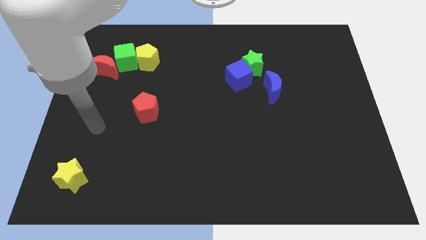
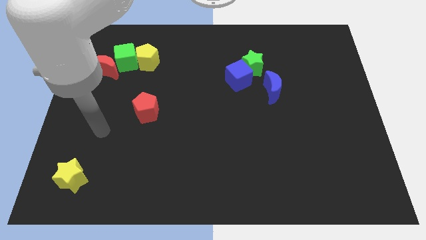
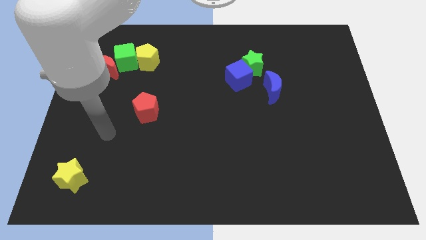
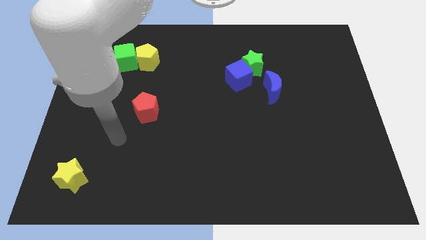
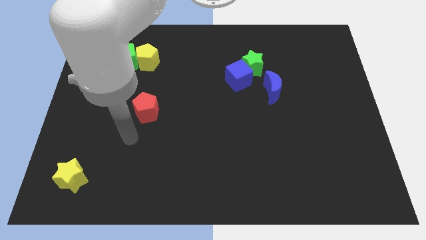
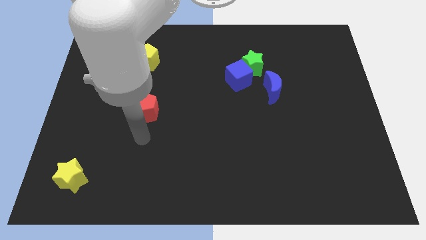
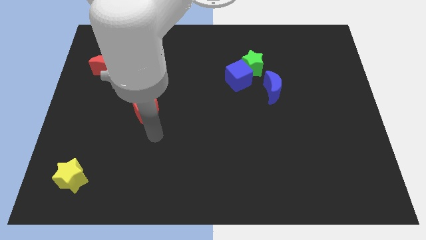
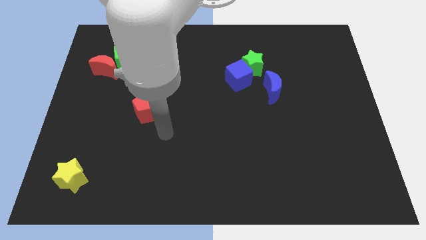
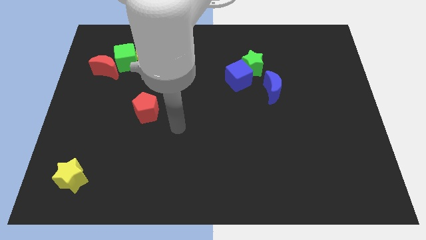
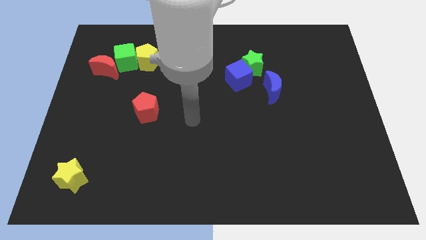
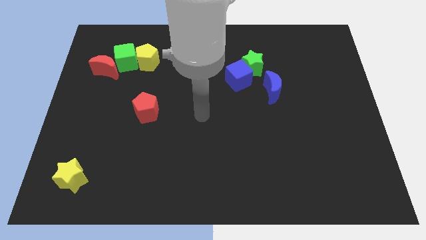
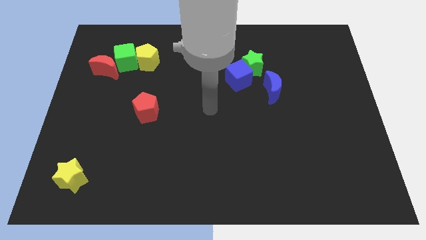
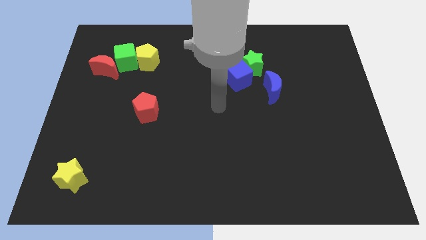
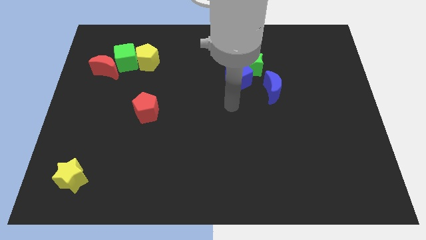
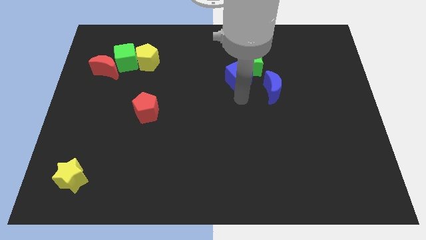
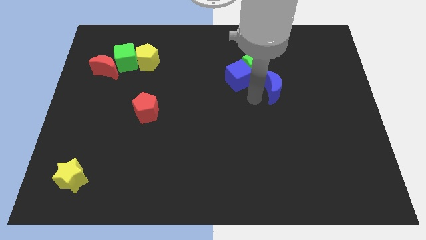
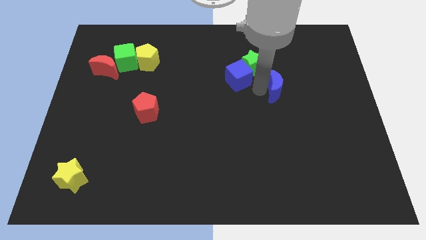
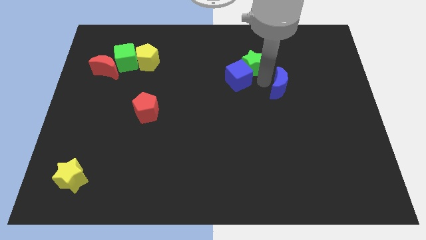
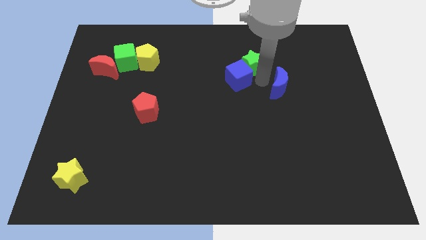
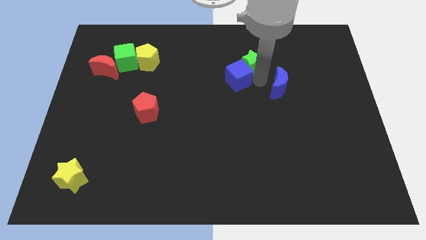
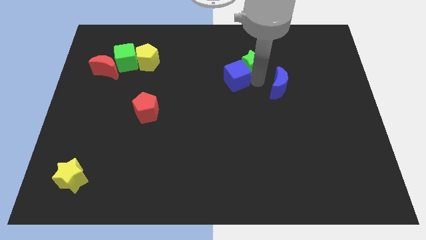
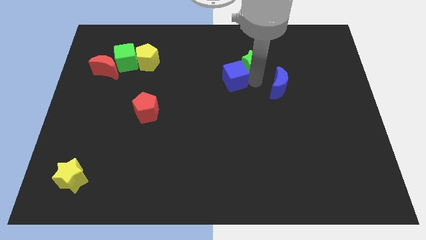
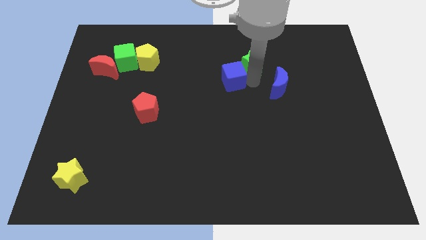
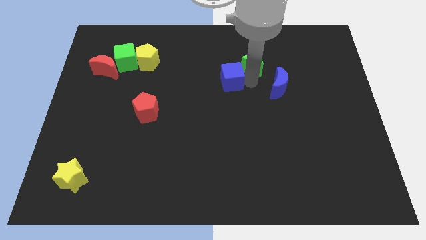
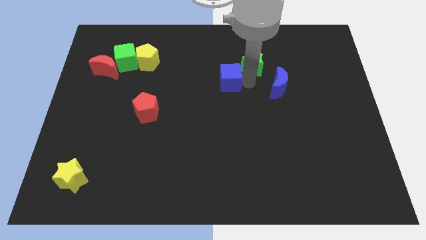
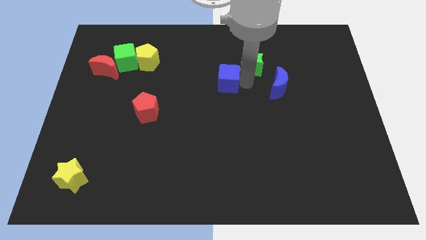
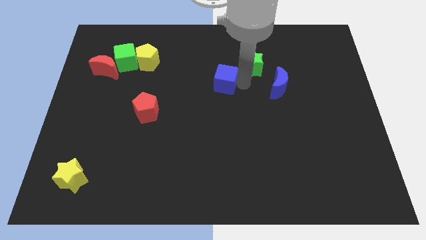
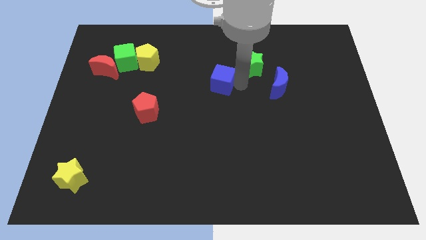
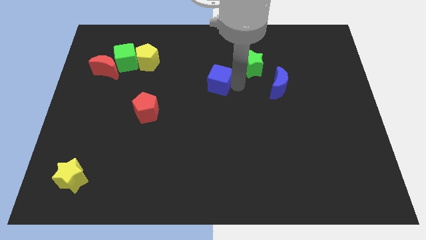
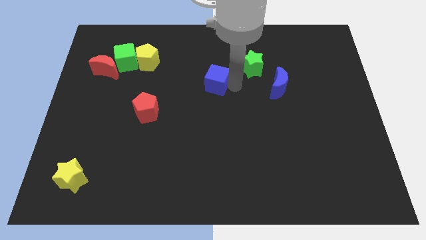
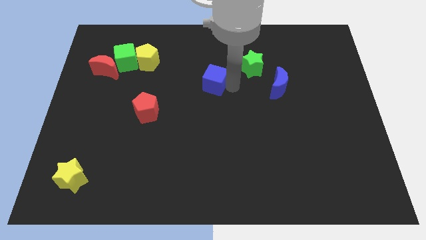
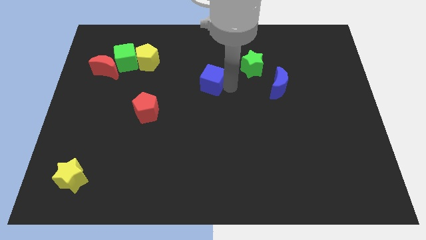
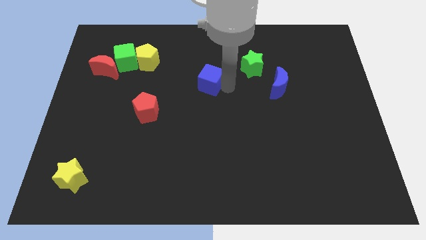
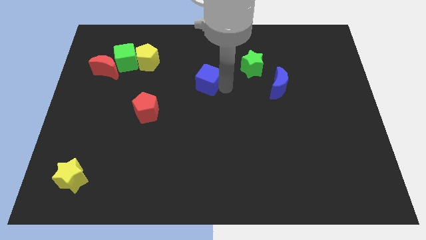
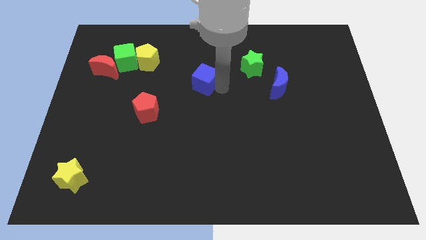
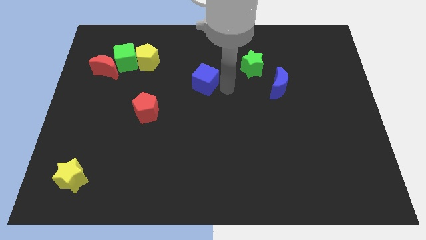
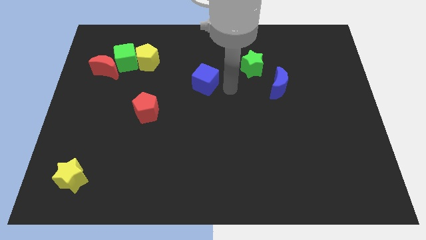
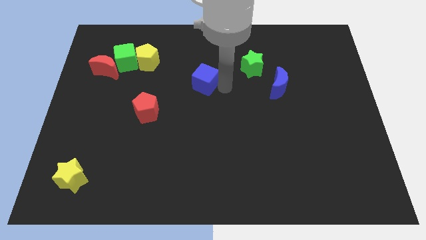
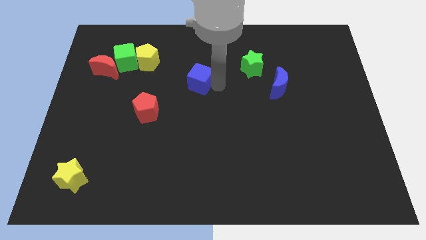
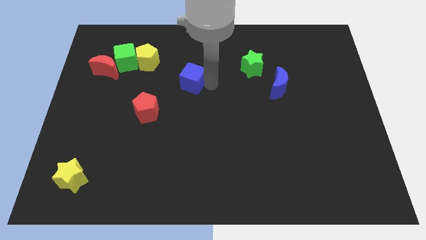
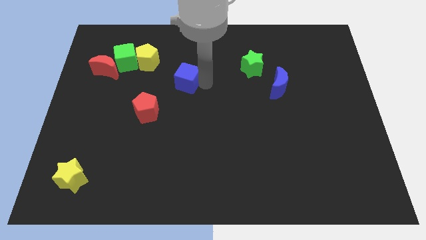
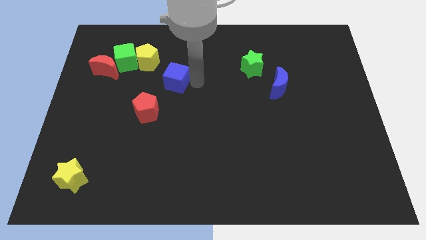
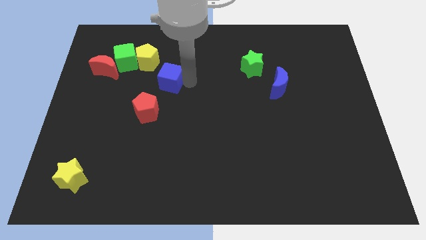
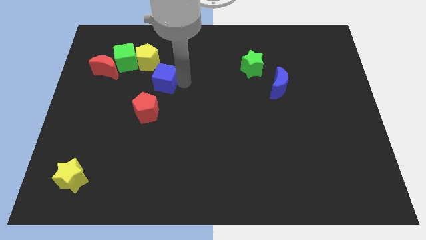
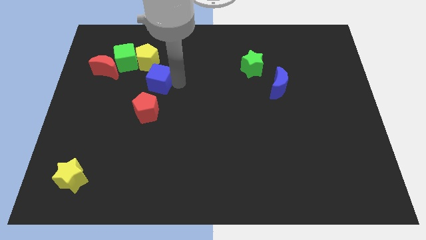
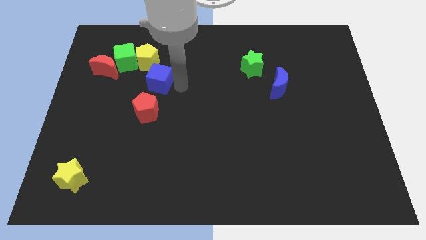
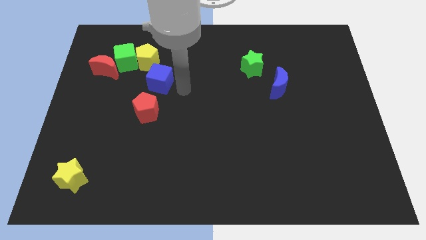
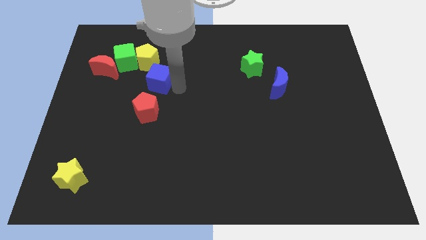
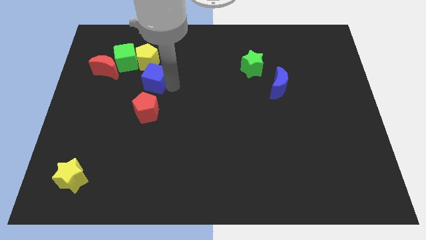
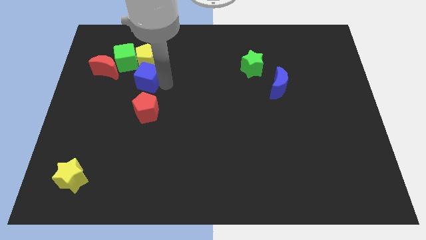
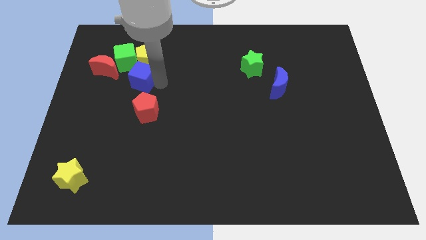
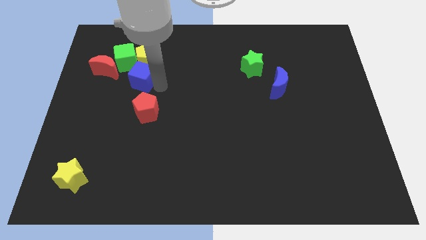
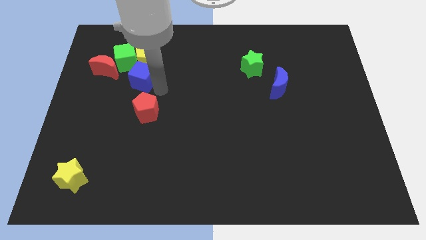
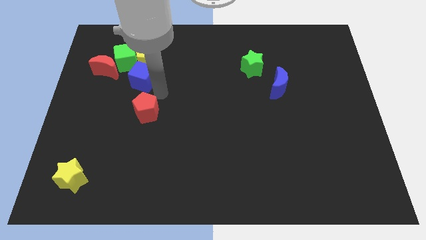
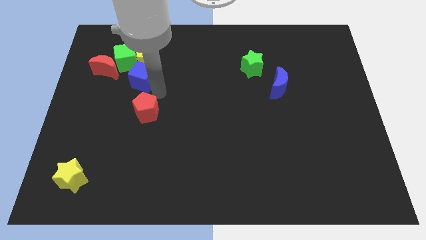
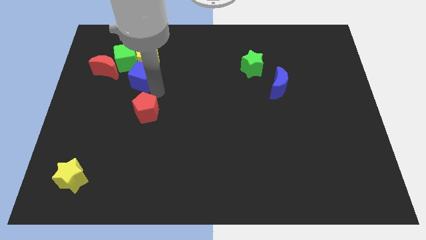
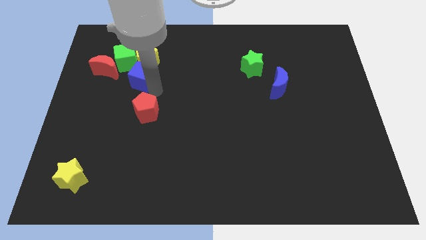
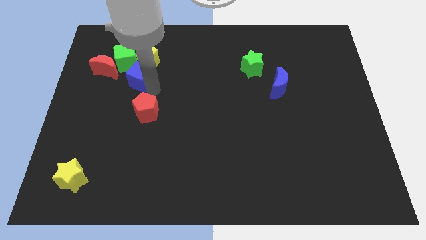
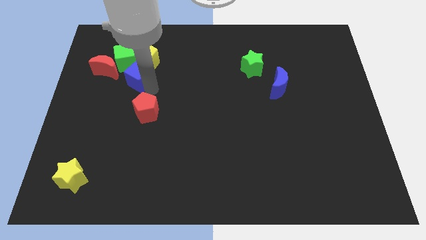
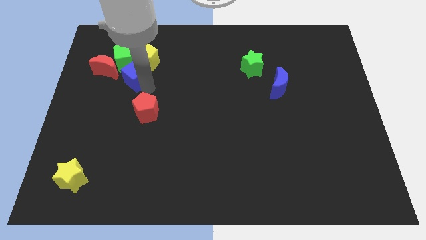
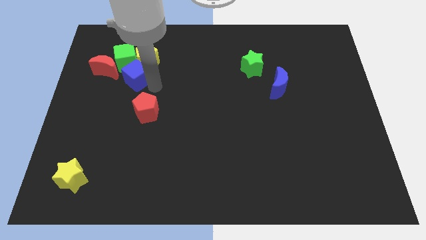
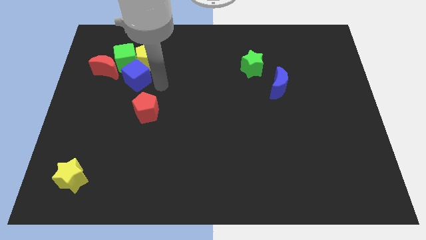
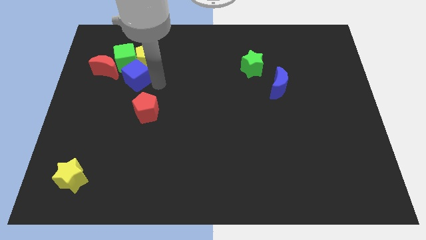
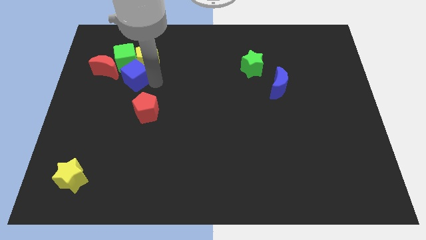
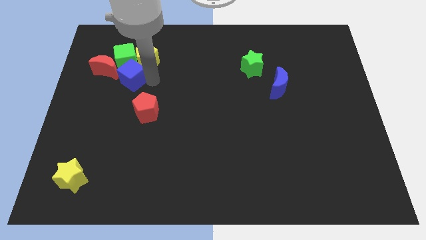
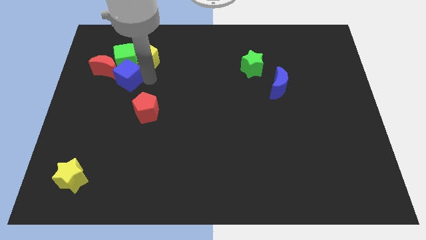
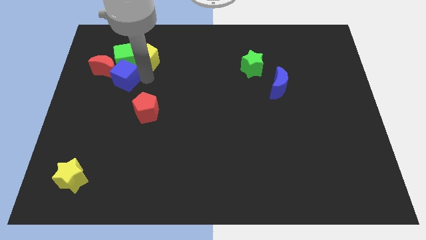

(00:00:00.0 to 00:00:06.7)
push the blue cube close to the red moon

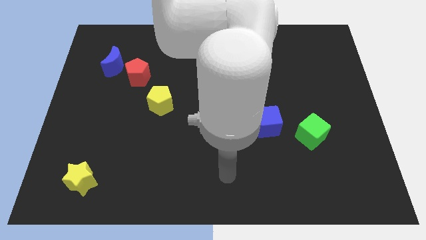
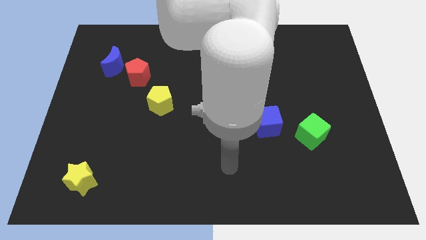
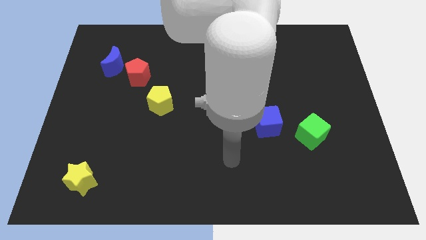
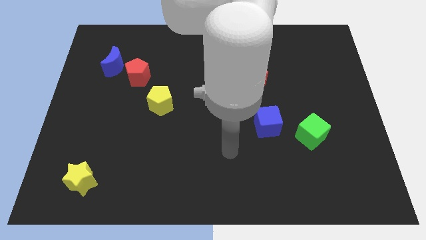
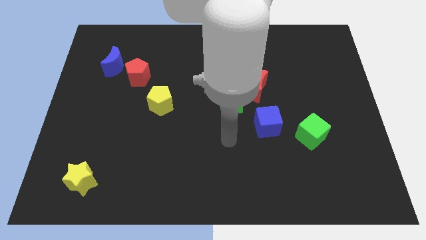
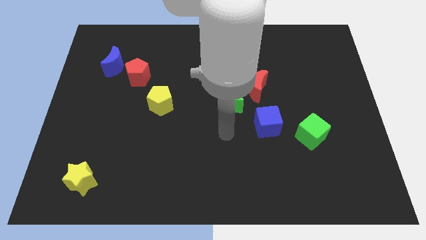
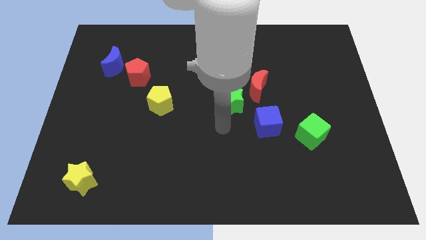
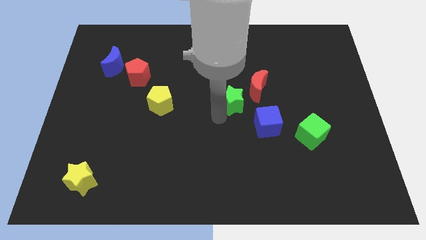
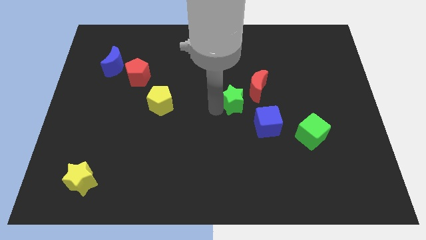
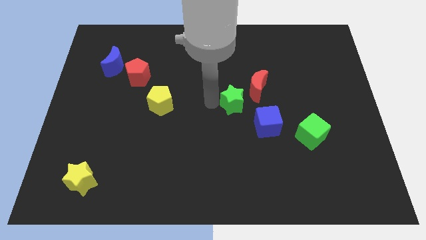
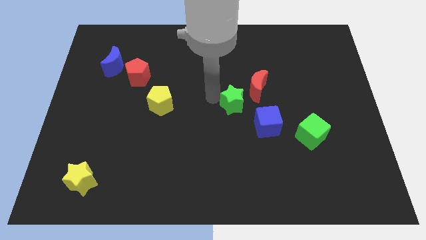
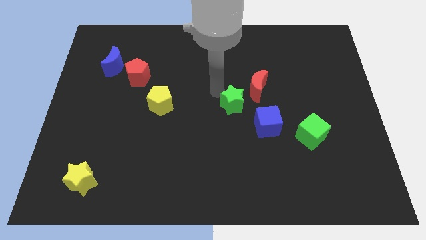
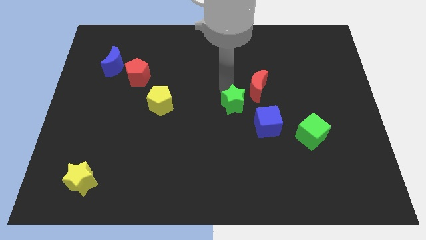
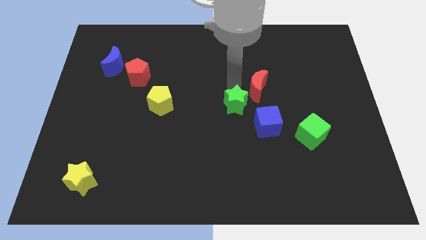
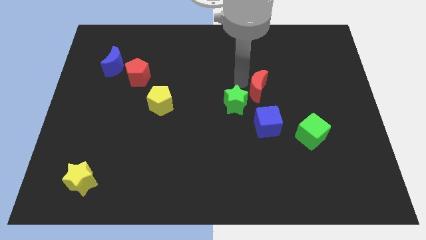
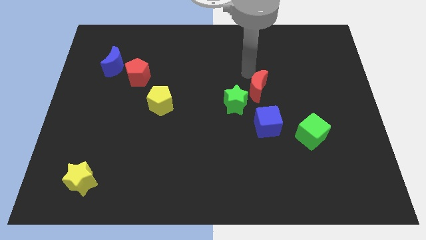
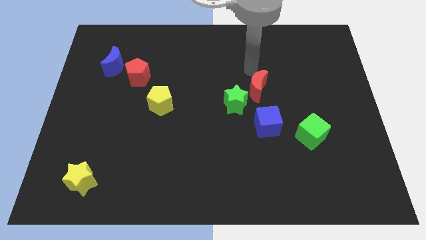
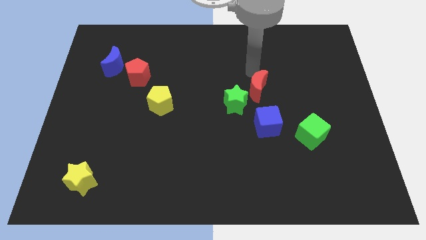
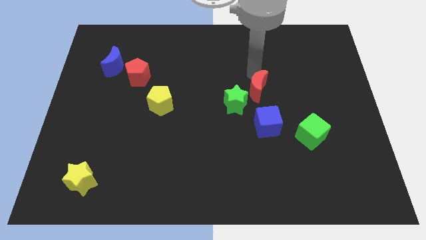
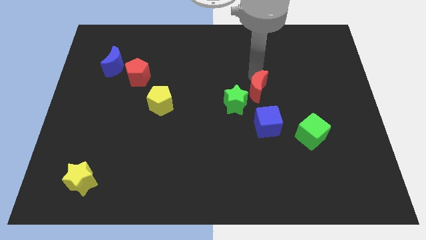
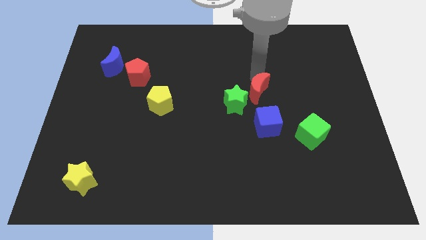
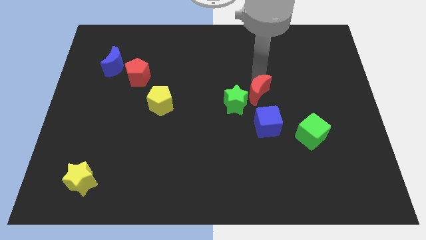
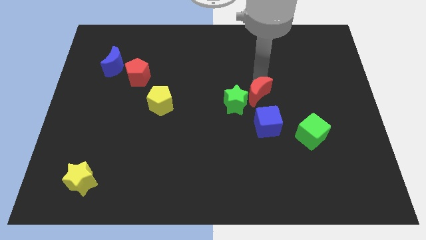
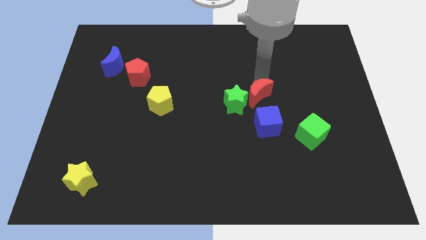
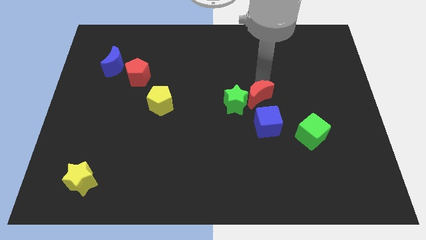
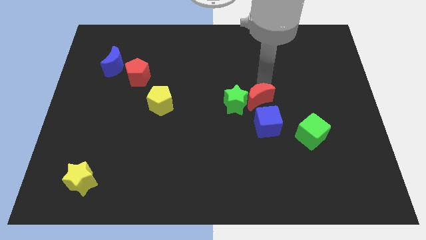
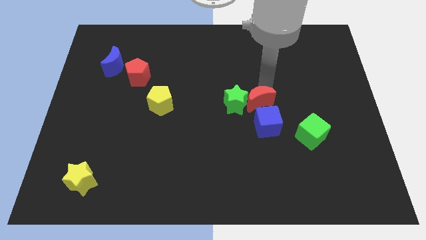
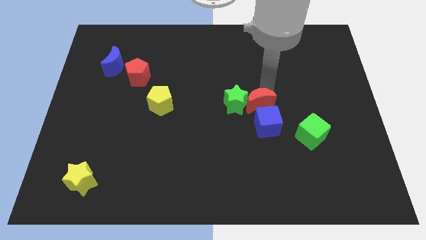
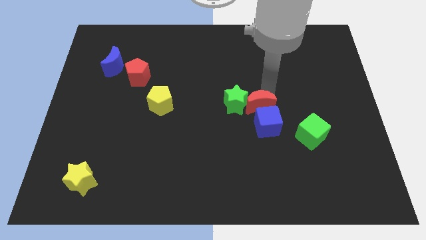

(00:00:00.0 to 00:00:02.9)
put the red moon to the blue cube
